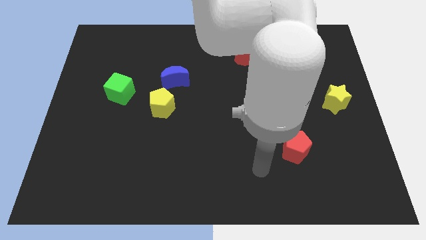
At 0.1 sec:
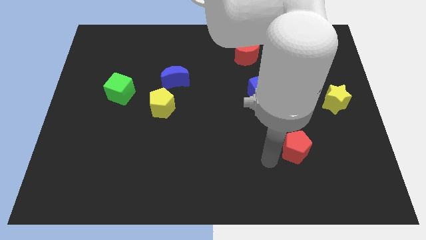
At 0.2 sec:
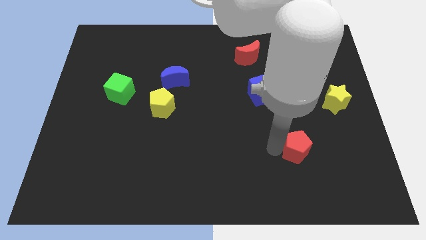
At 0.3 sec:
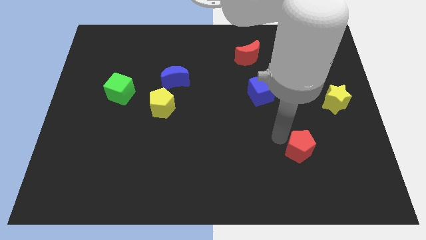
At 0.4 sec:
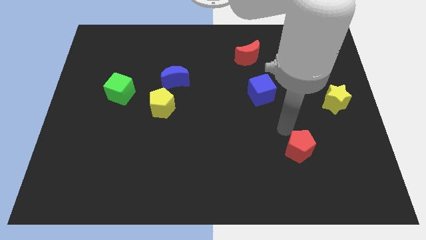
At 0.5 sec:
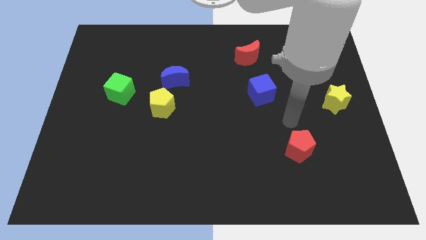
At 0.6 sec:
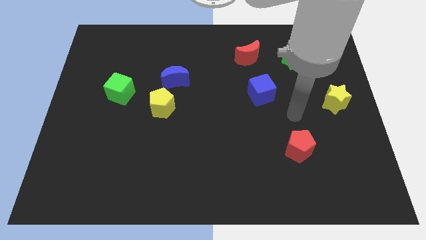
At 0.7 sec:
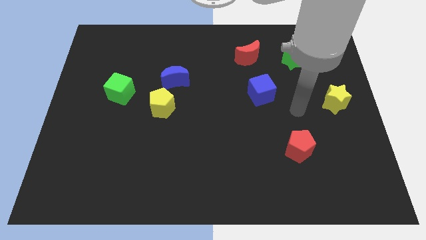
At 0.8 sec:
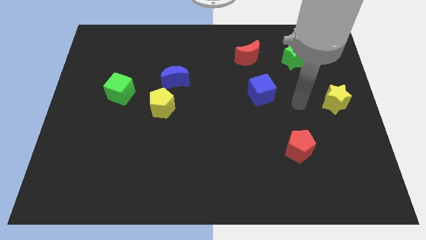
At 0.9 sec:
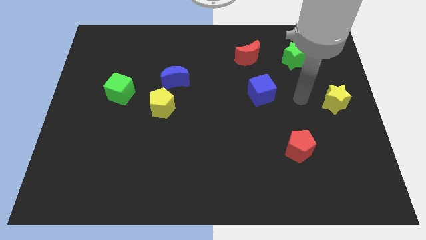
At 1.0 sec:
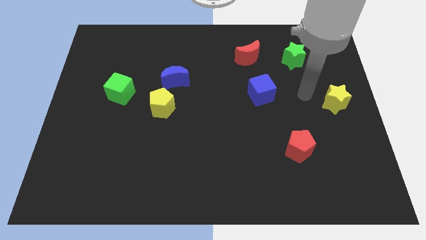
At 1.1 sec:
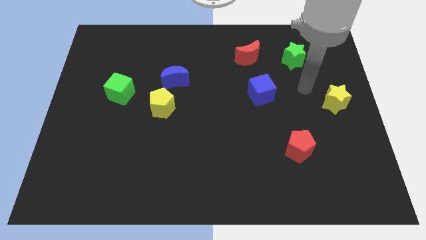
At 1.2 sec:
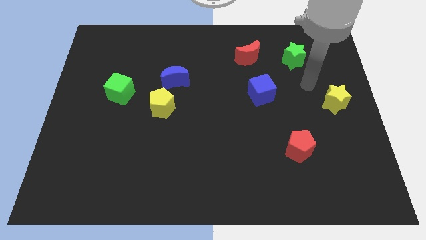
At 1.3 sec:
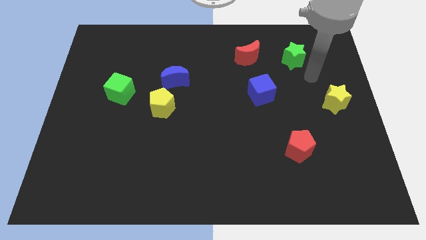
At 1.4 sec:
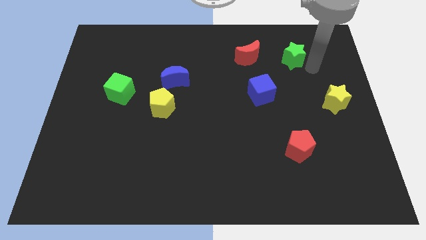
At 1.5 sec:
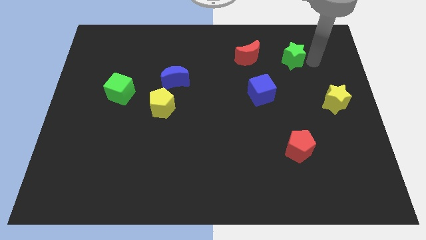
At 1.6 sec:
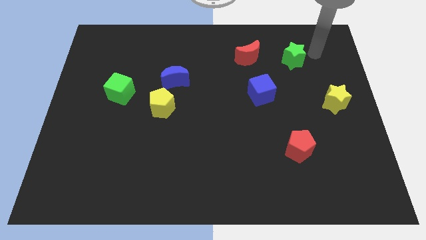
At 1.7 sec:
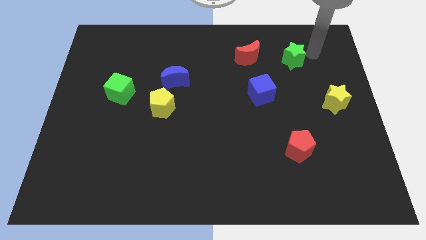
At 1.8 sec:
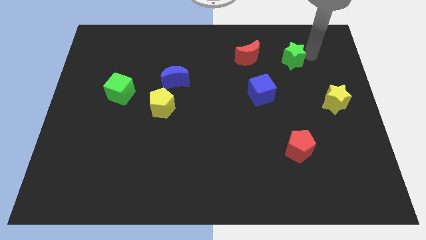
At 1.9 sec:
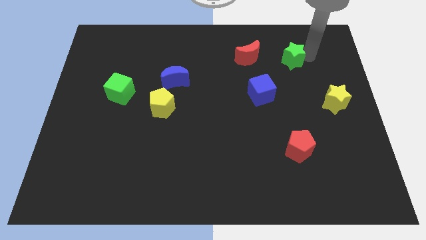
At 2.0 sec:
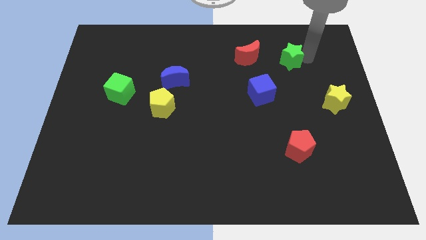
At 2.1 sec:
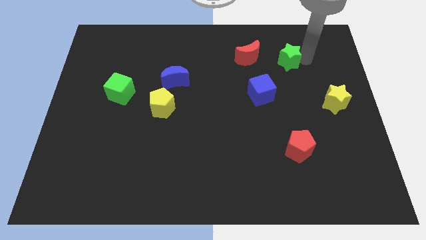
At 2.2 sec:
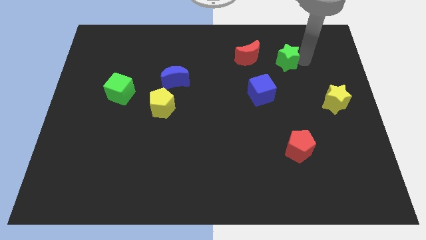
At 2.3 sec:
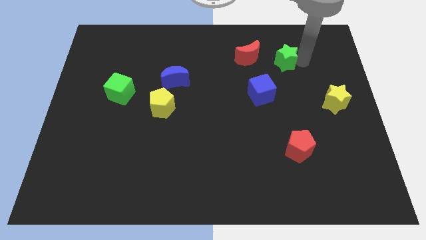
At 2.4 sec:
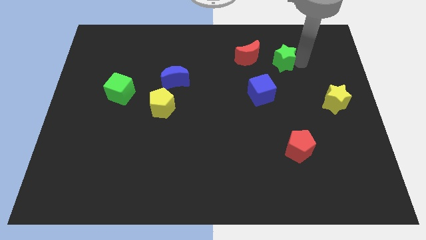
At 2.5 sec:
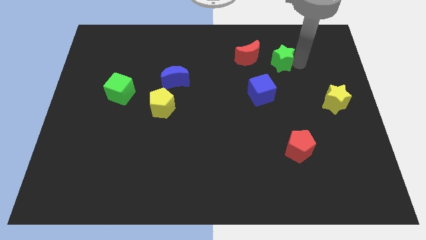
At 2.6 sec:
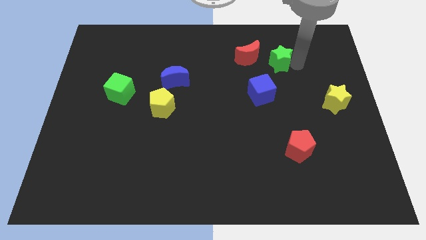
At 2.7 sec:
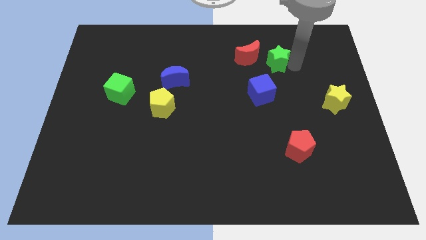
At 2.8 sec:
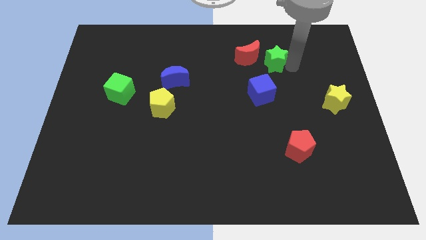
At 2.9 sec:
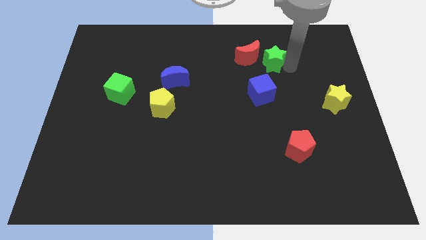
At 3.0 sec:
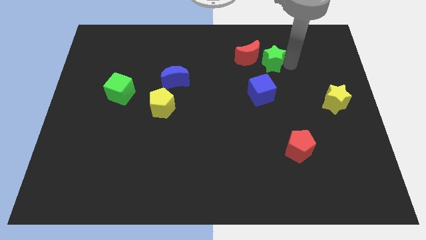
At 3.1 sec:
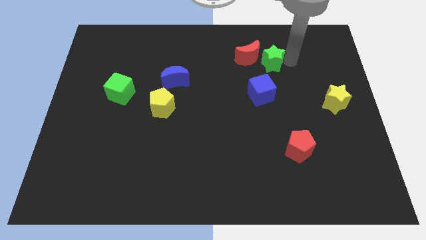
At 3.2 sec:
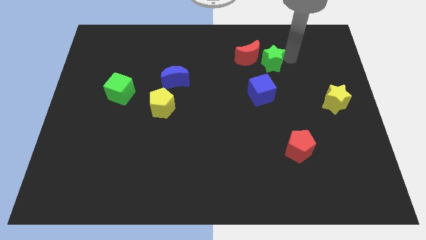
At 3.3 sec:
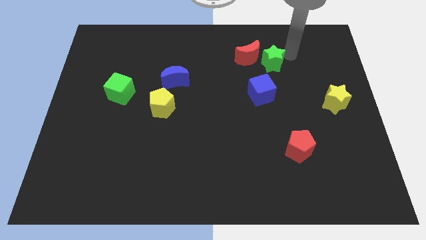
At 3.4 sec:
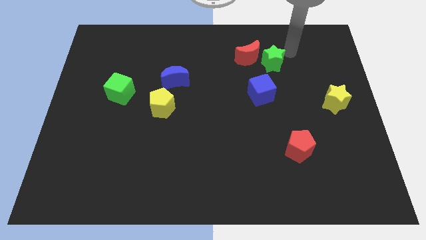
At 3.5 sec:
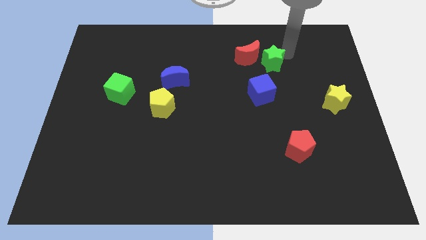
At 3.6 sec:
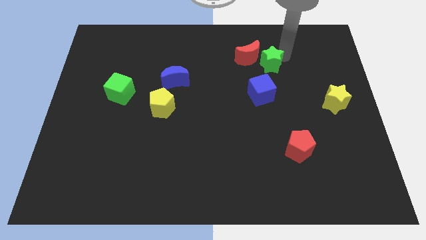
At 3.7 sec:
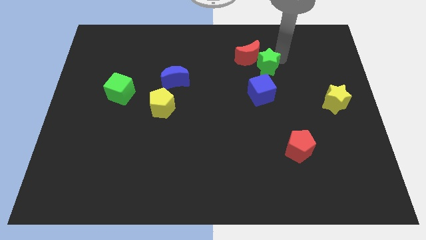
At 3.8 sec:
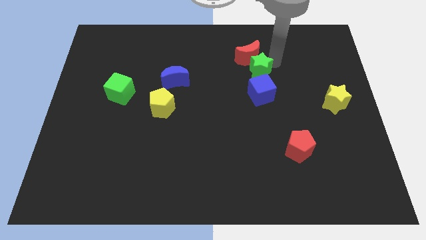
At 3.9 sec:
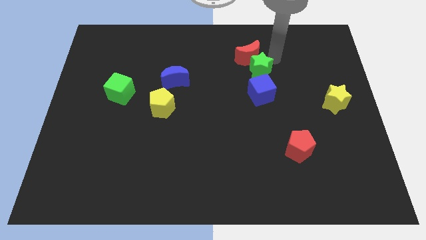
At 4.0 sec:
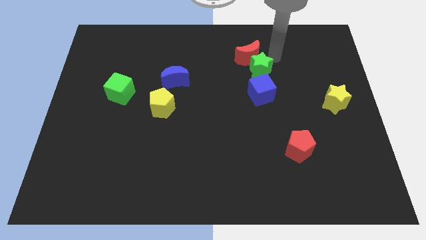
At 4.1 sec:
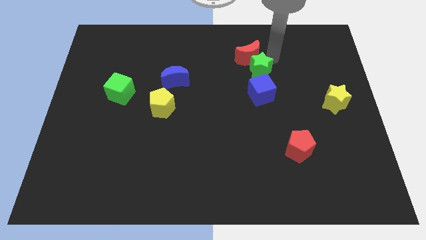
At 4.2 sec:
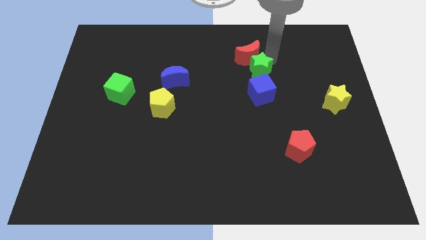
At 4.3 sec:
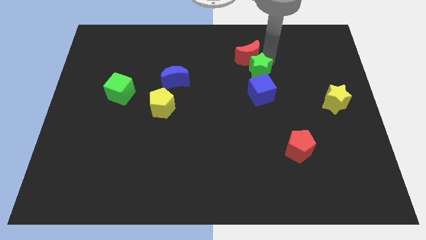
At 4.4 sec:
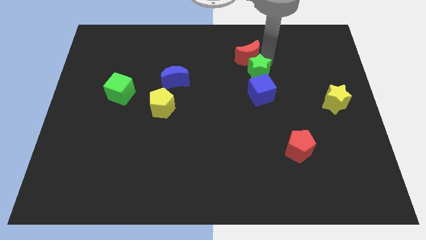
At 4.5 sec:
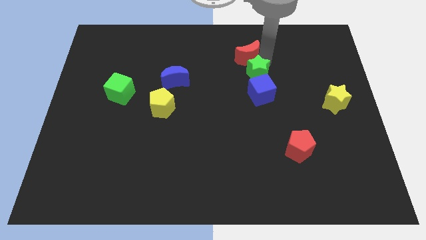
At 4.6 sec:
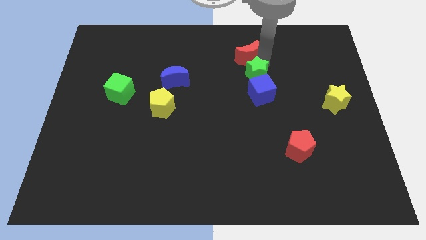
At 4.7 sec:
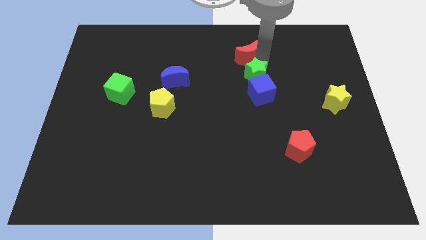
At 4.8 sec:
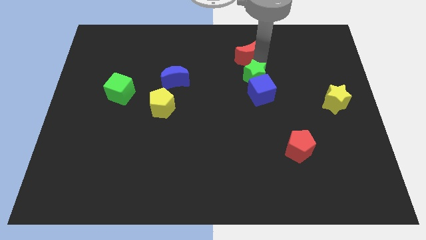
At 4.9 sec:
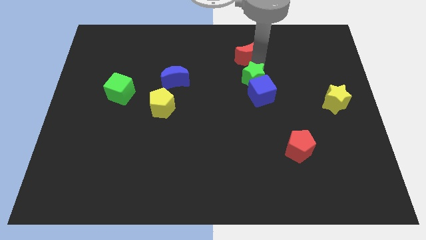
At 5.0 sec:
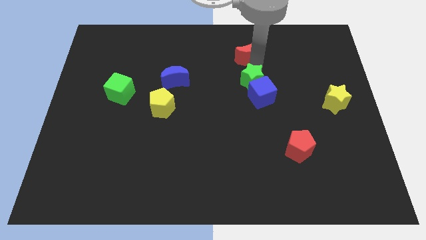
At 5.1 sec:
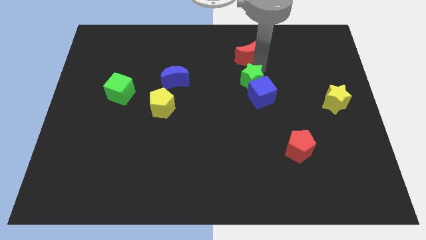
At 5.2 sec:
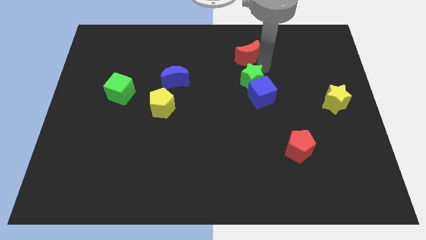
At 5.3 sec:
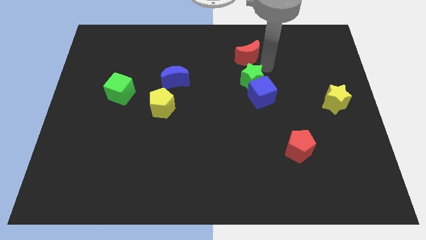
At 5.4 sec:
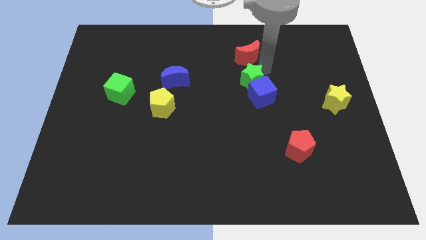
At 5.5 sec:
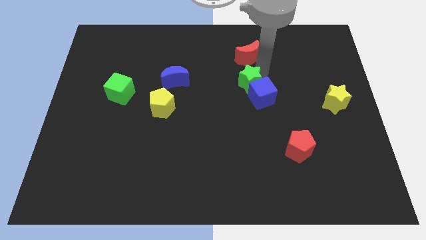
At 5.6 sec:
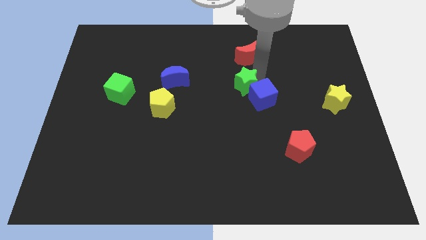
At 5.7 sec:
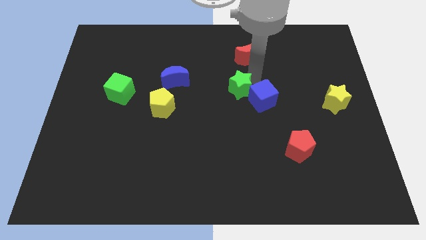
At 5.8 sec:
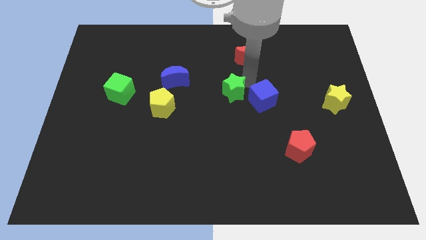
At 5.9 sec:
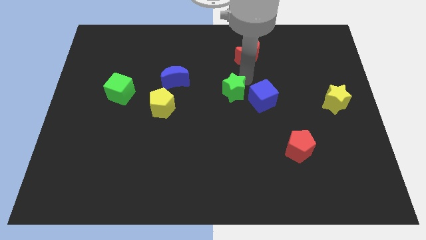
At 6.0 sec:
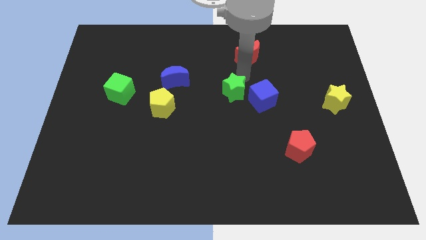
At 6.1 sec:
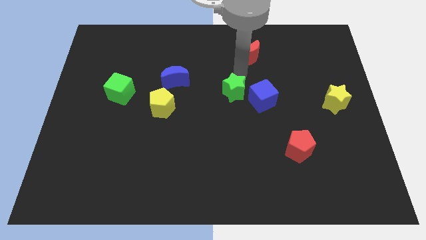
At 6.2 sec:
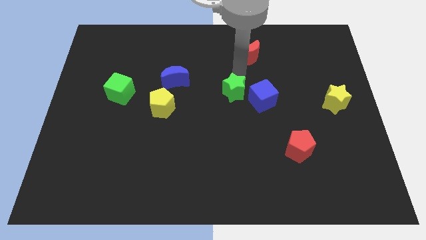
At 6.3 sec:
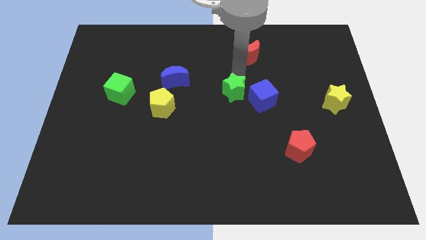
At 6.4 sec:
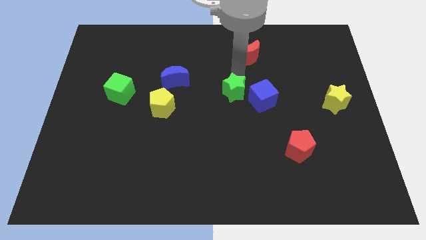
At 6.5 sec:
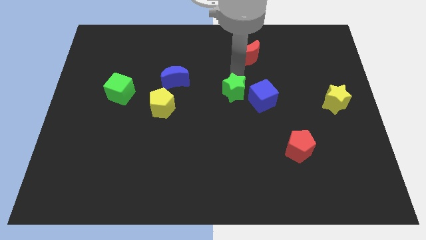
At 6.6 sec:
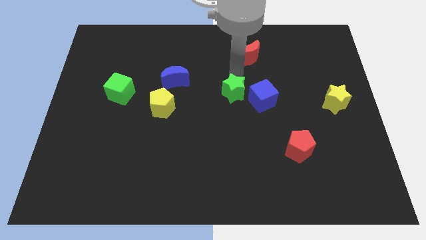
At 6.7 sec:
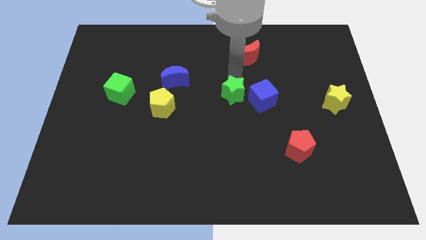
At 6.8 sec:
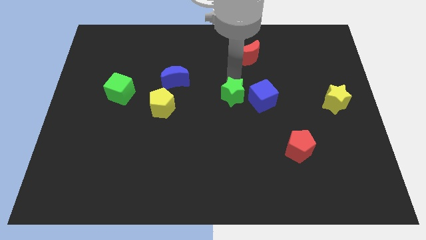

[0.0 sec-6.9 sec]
push the green star downwards and left

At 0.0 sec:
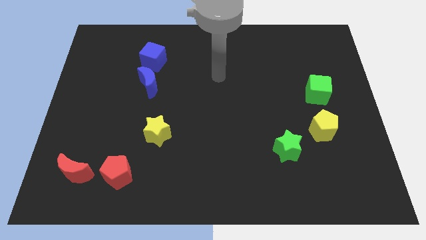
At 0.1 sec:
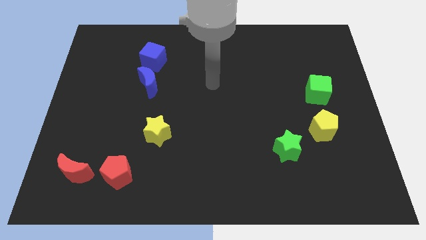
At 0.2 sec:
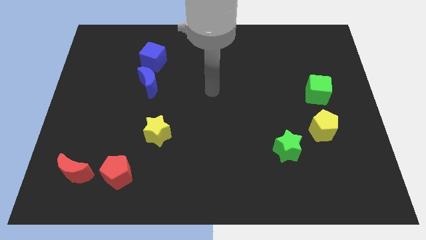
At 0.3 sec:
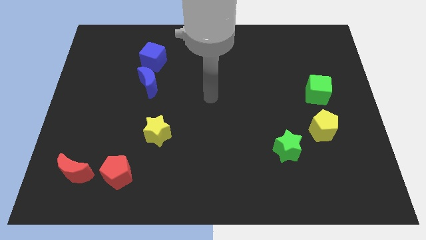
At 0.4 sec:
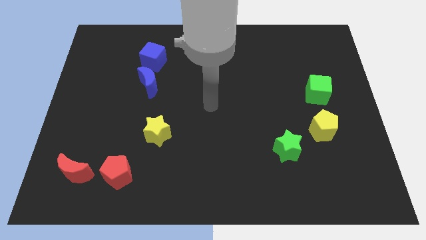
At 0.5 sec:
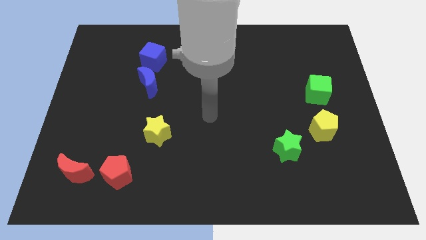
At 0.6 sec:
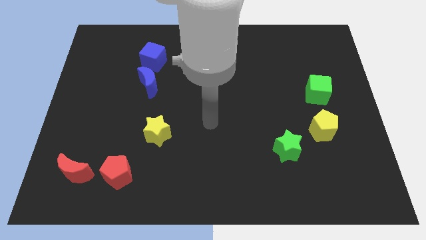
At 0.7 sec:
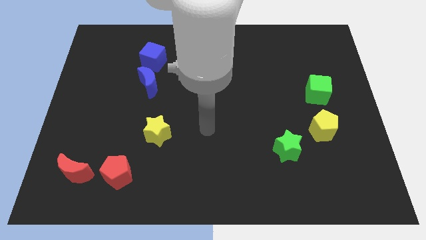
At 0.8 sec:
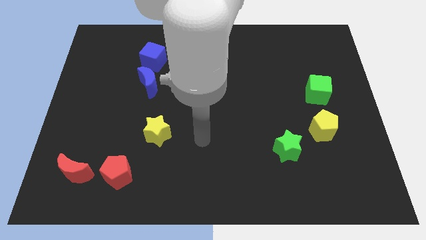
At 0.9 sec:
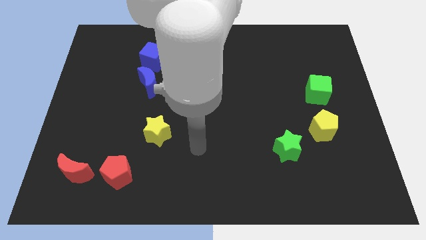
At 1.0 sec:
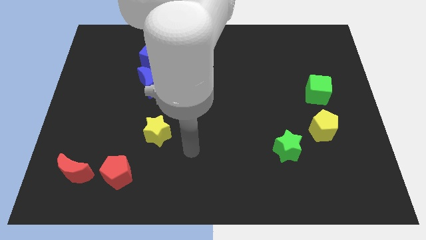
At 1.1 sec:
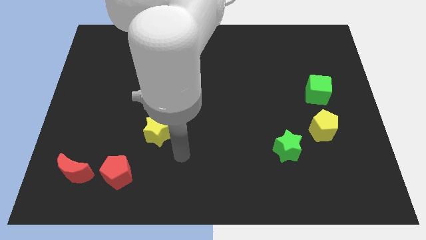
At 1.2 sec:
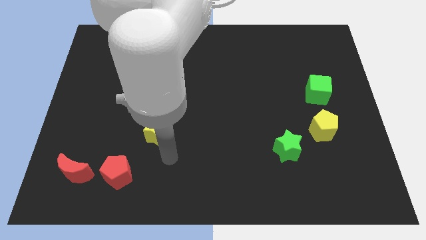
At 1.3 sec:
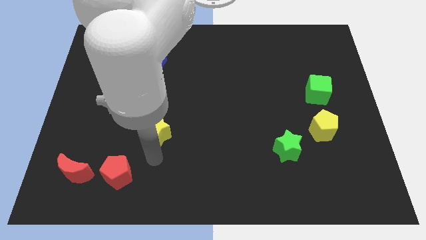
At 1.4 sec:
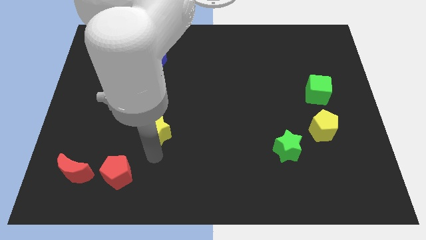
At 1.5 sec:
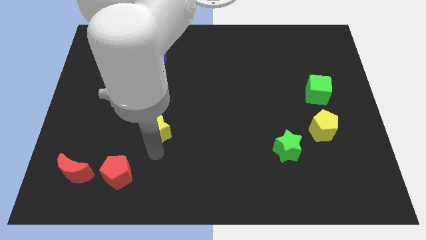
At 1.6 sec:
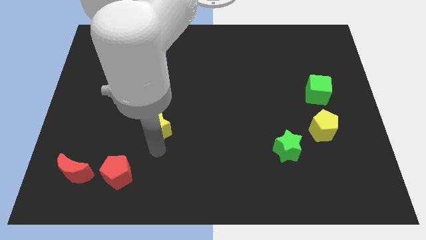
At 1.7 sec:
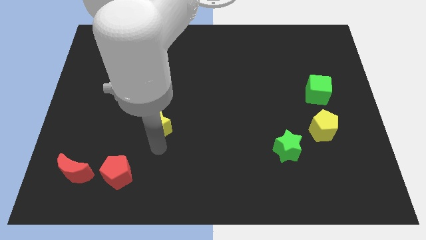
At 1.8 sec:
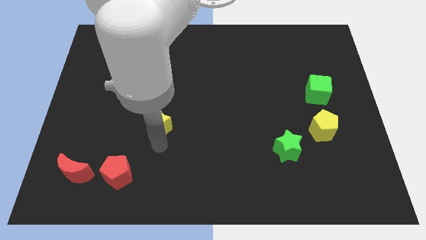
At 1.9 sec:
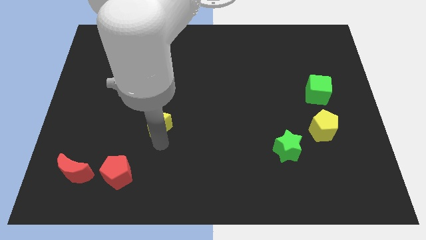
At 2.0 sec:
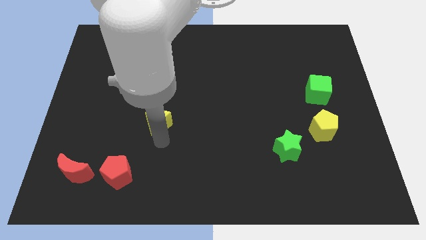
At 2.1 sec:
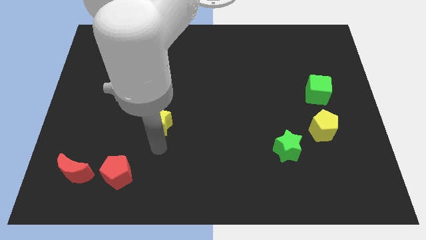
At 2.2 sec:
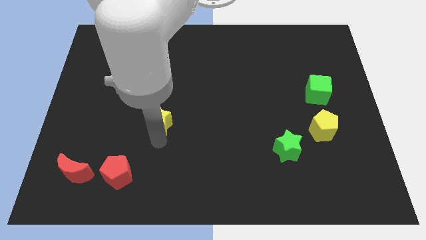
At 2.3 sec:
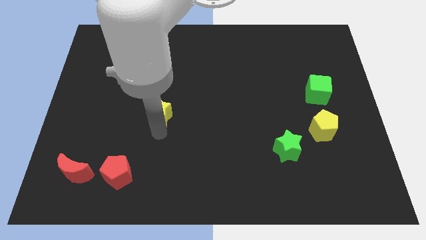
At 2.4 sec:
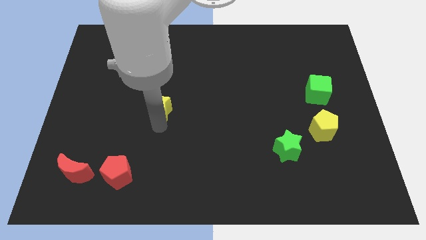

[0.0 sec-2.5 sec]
push the yellow star a little up
